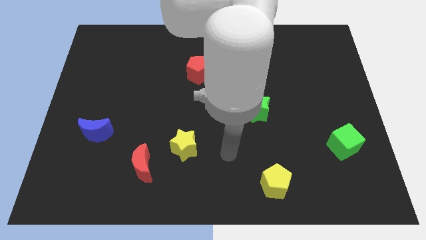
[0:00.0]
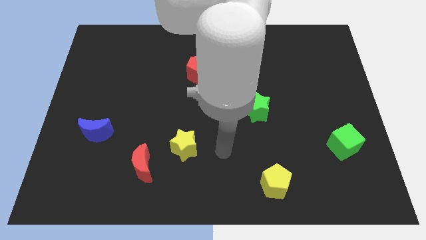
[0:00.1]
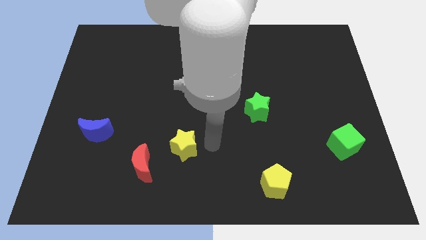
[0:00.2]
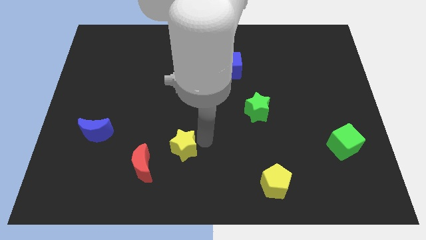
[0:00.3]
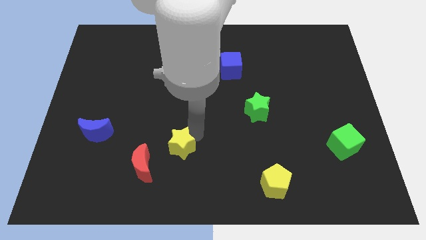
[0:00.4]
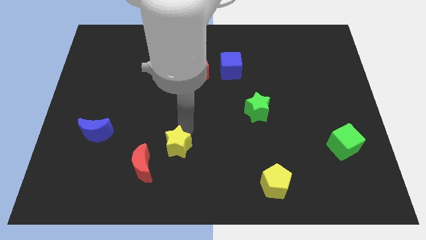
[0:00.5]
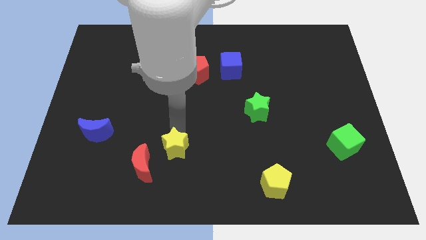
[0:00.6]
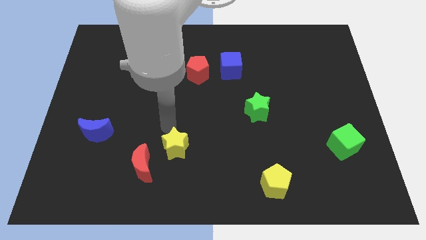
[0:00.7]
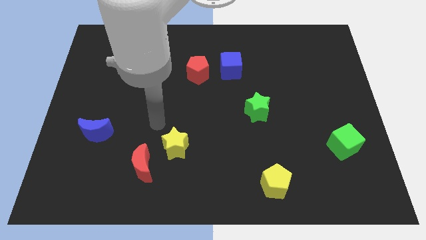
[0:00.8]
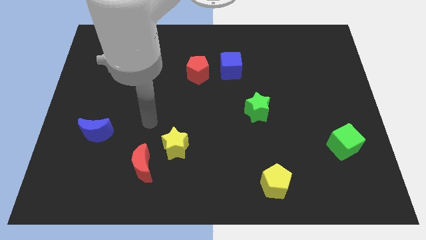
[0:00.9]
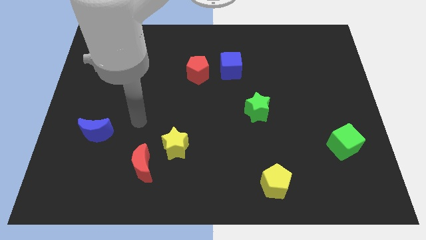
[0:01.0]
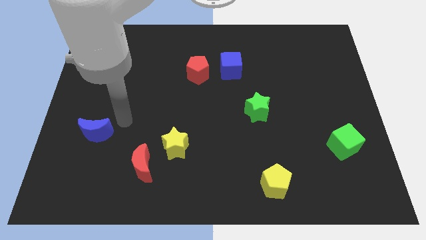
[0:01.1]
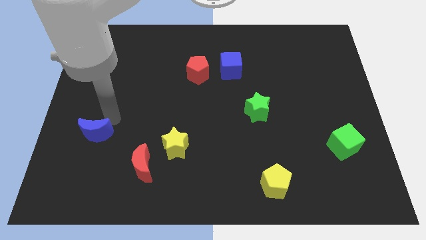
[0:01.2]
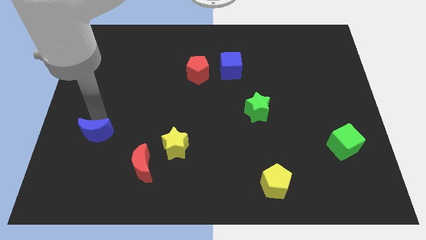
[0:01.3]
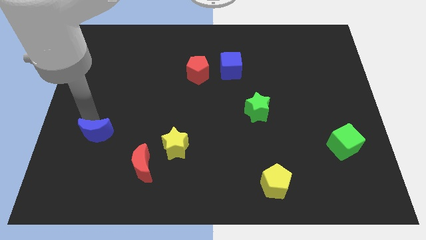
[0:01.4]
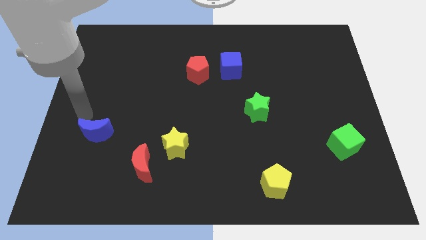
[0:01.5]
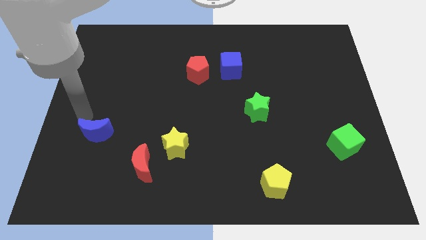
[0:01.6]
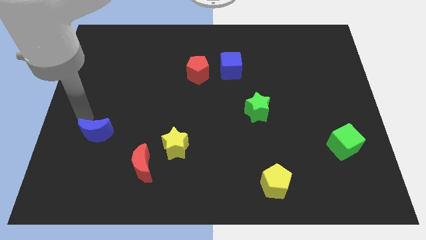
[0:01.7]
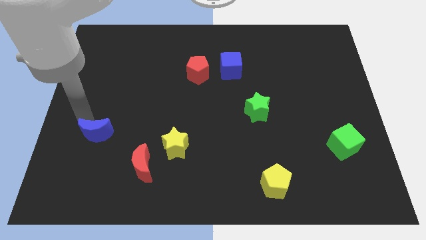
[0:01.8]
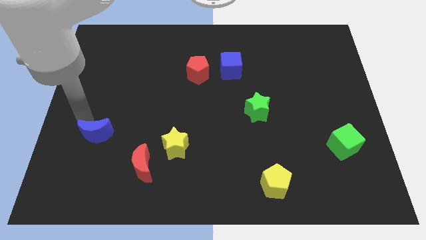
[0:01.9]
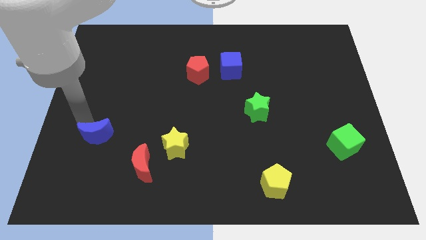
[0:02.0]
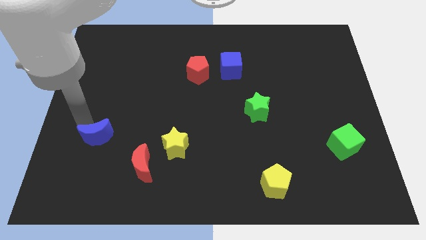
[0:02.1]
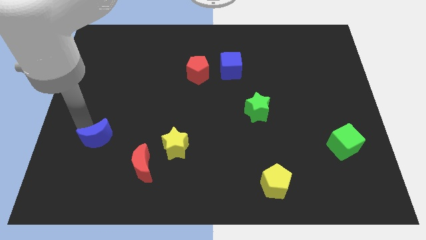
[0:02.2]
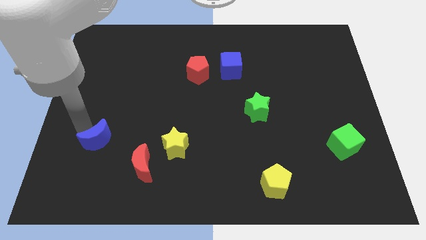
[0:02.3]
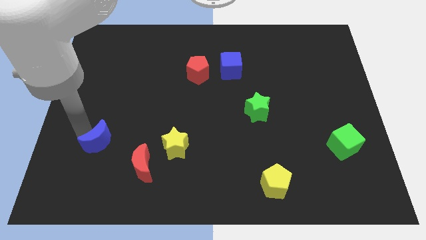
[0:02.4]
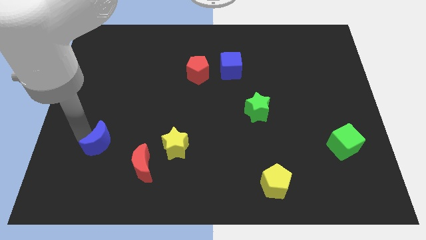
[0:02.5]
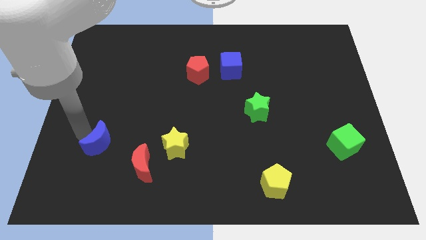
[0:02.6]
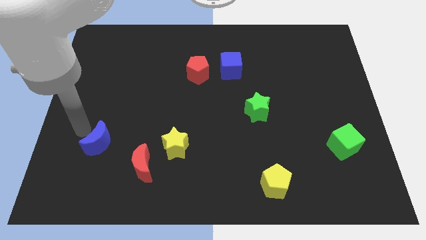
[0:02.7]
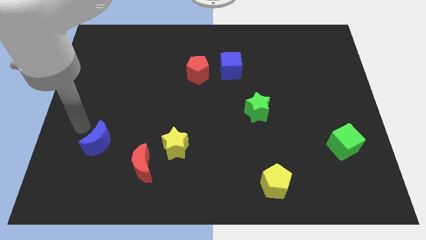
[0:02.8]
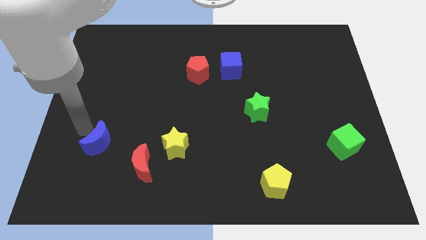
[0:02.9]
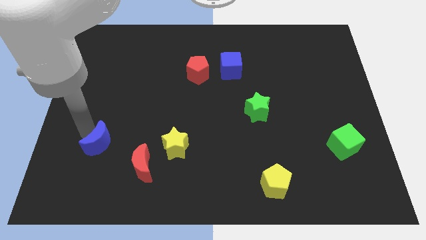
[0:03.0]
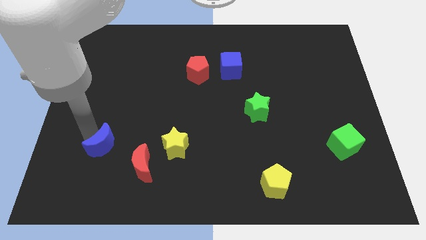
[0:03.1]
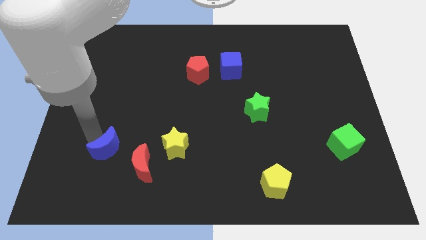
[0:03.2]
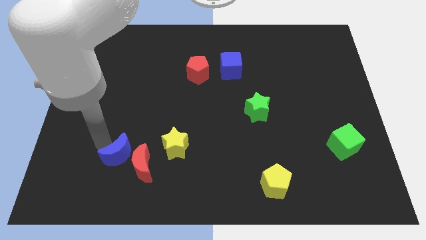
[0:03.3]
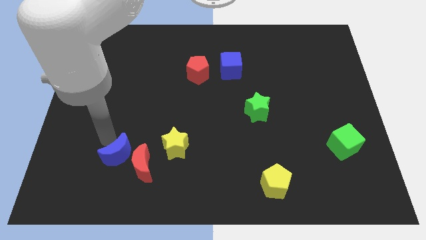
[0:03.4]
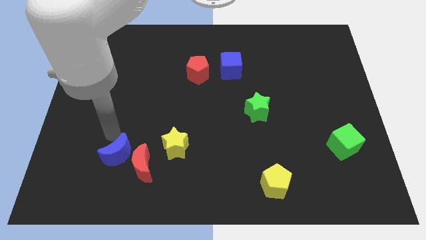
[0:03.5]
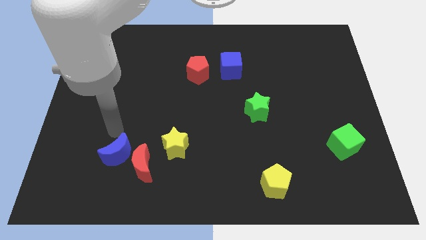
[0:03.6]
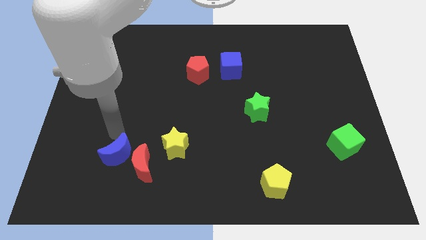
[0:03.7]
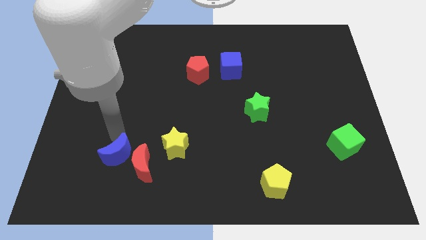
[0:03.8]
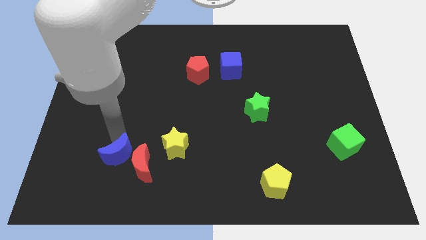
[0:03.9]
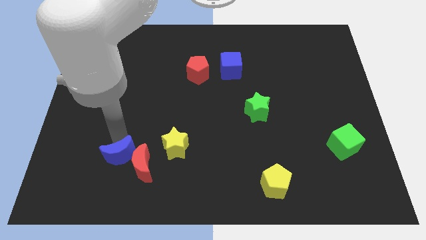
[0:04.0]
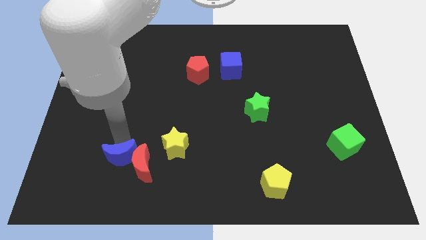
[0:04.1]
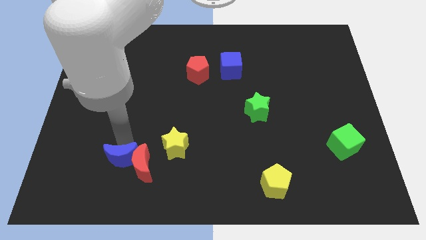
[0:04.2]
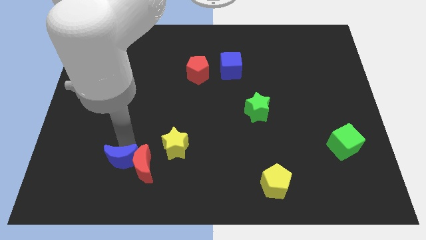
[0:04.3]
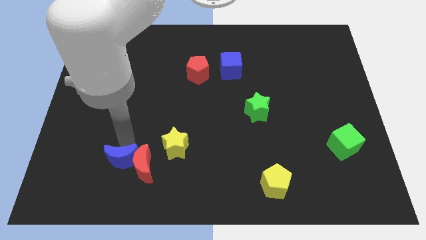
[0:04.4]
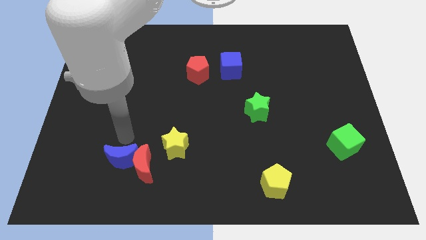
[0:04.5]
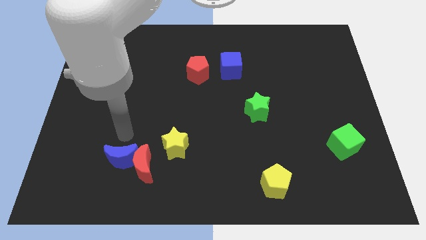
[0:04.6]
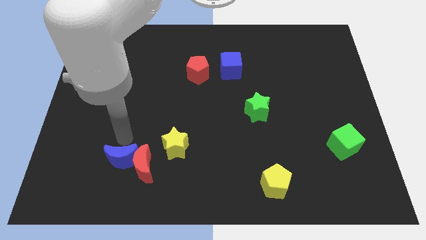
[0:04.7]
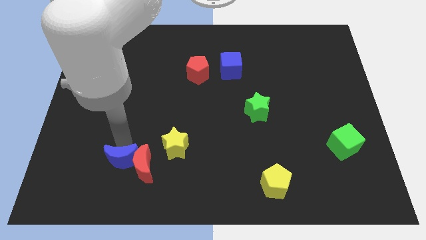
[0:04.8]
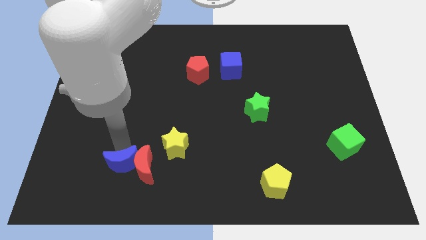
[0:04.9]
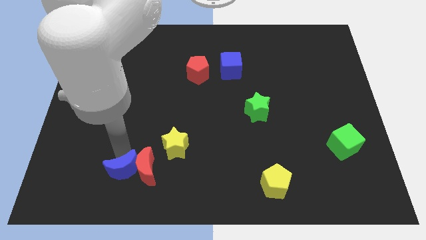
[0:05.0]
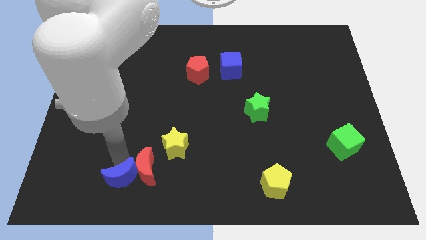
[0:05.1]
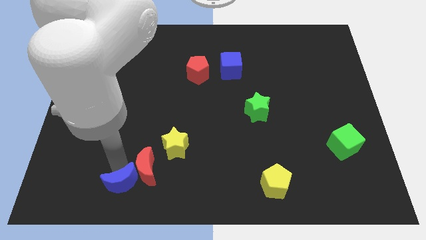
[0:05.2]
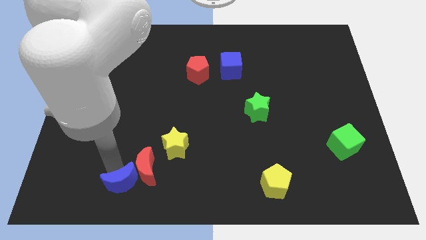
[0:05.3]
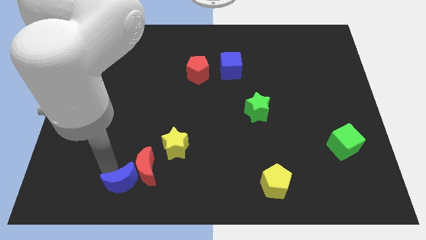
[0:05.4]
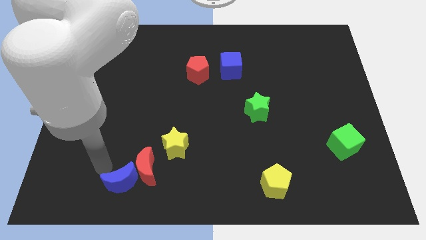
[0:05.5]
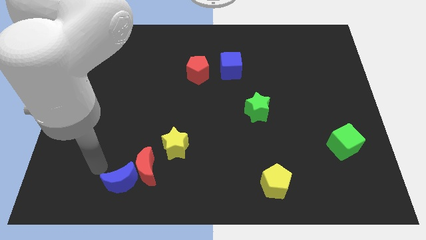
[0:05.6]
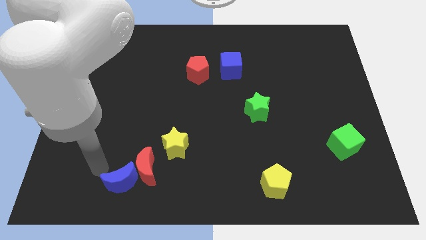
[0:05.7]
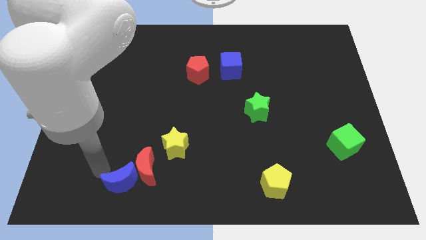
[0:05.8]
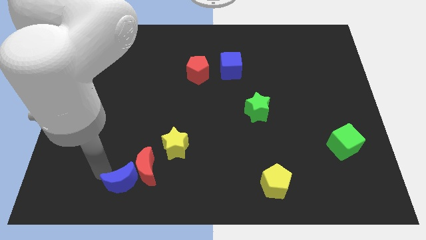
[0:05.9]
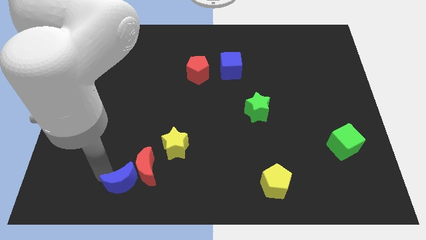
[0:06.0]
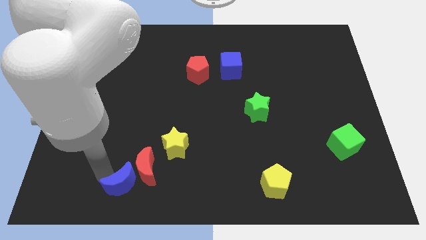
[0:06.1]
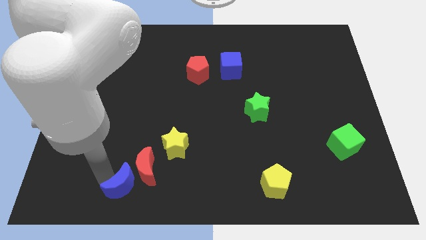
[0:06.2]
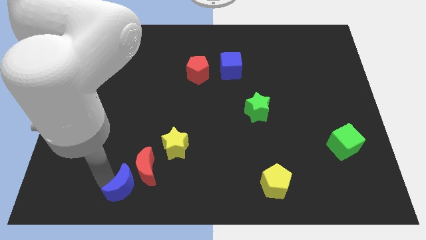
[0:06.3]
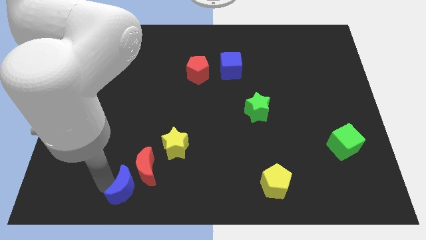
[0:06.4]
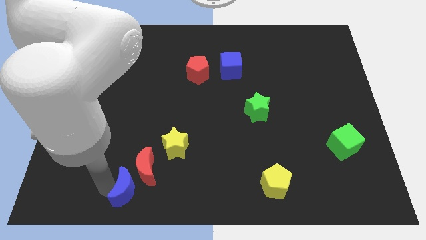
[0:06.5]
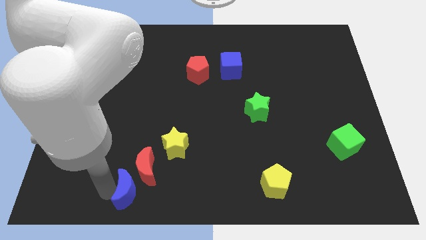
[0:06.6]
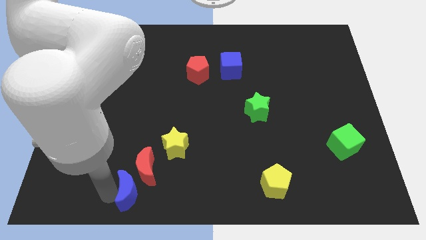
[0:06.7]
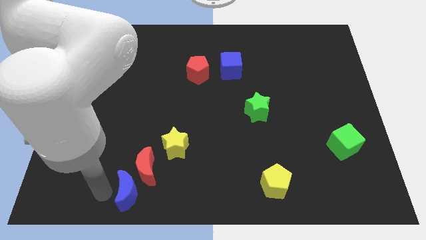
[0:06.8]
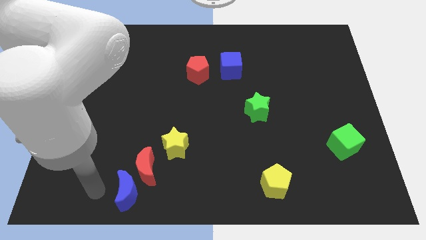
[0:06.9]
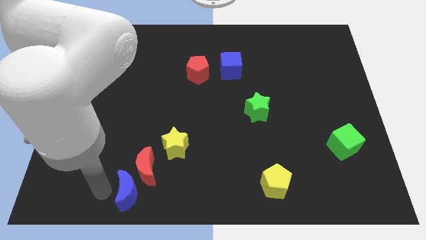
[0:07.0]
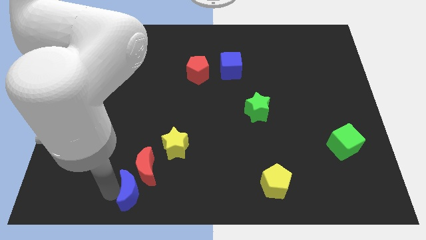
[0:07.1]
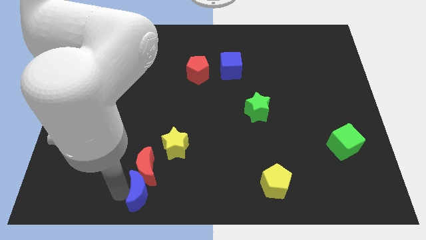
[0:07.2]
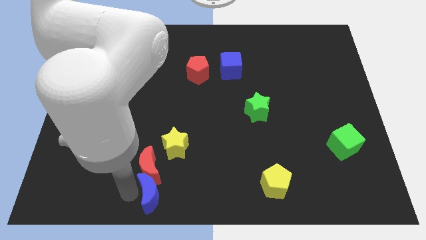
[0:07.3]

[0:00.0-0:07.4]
put the blue moon to the bottom side
